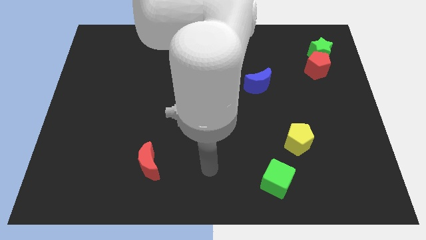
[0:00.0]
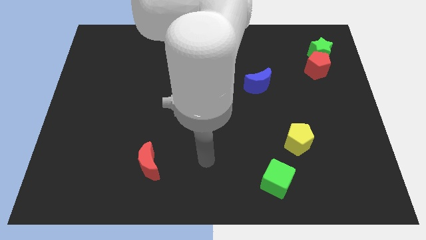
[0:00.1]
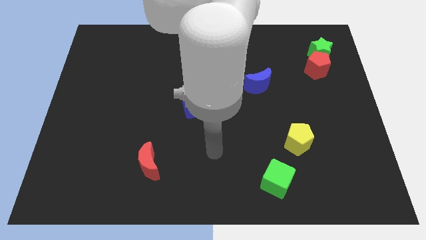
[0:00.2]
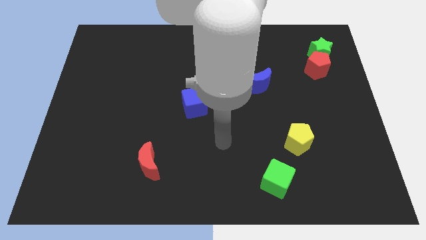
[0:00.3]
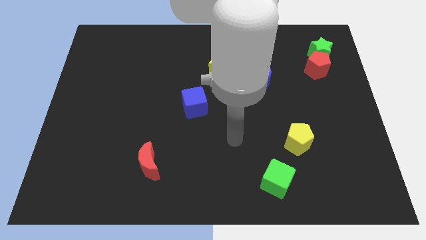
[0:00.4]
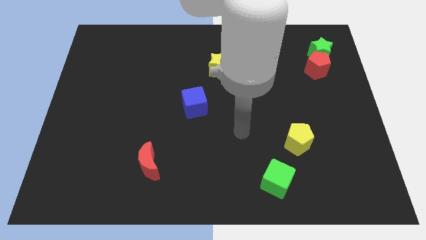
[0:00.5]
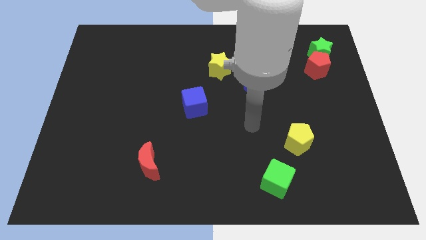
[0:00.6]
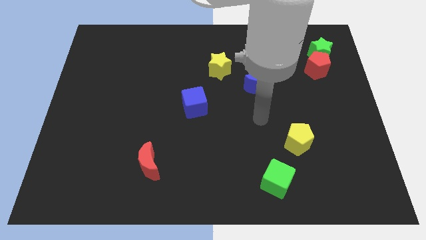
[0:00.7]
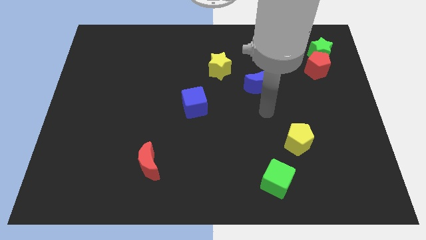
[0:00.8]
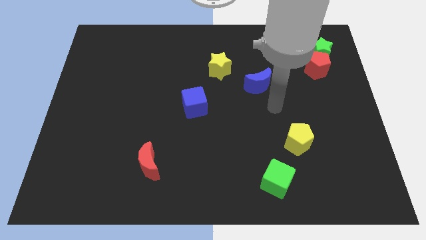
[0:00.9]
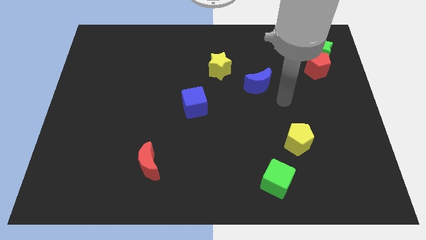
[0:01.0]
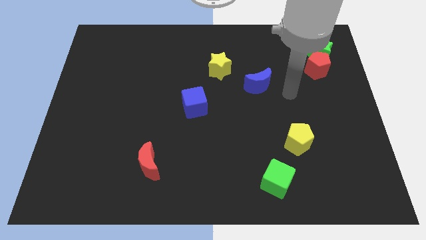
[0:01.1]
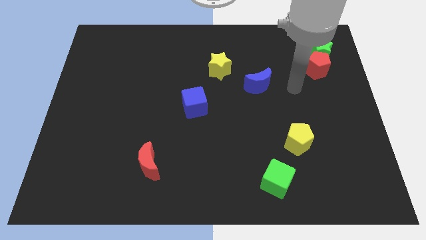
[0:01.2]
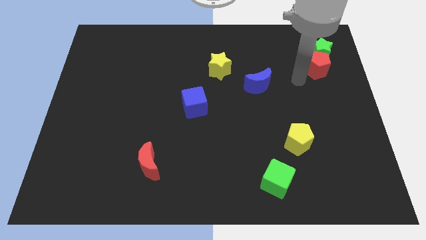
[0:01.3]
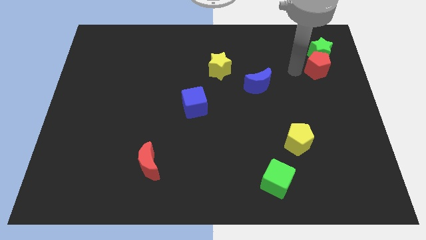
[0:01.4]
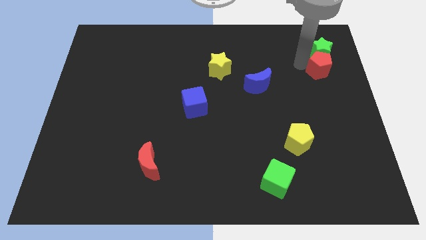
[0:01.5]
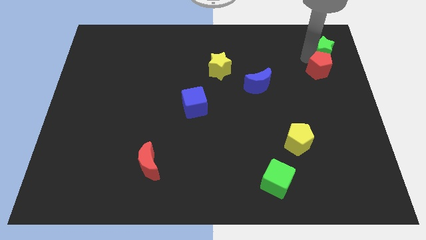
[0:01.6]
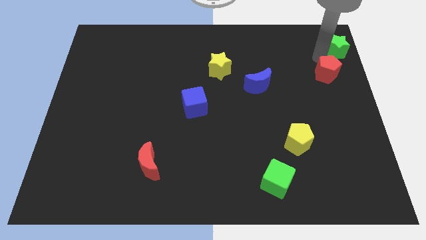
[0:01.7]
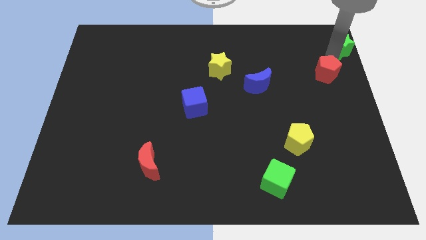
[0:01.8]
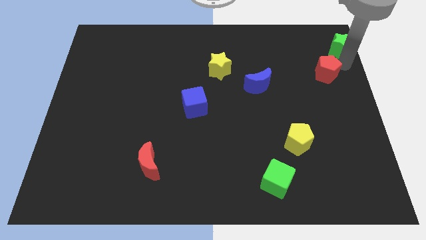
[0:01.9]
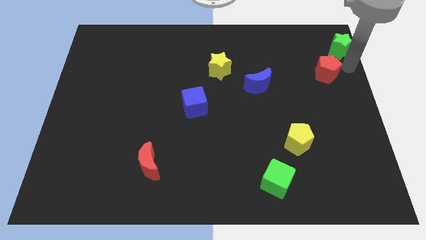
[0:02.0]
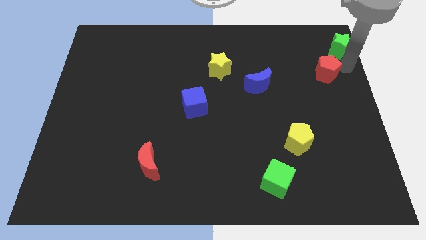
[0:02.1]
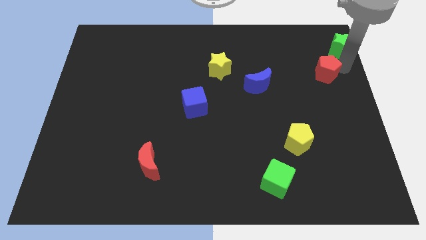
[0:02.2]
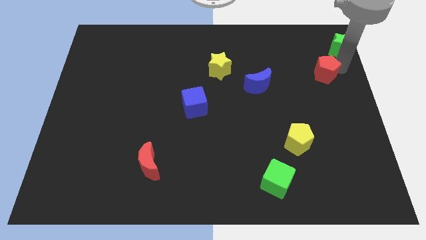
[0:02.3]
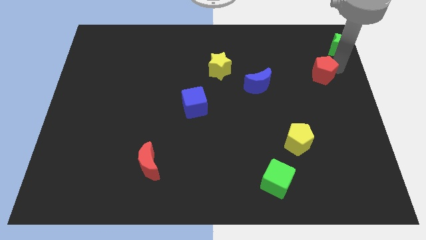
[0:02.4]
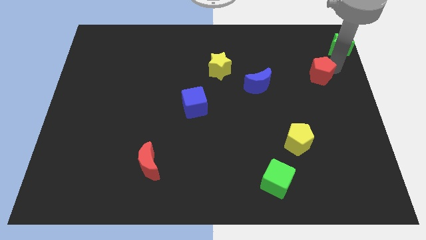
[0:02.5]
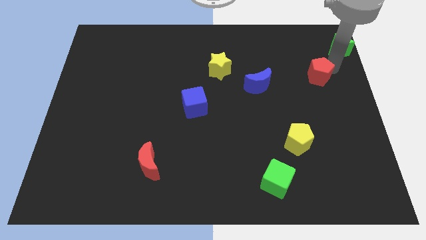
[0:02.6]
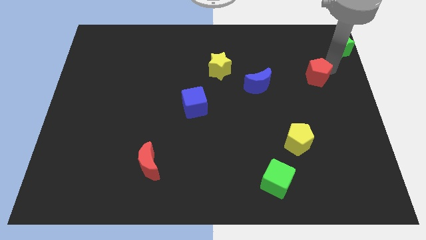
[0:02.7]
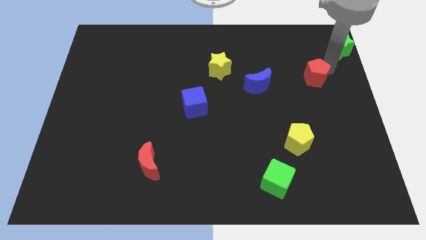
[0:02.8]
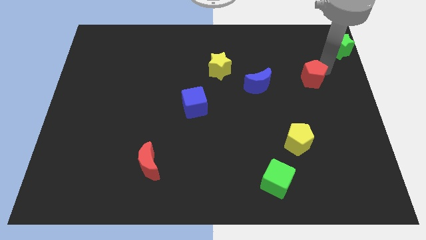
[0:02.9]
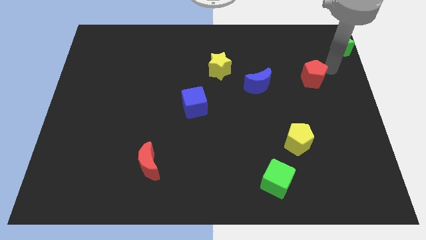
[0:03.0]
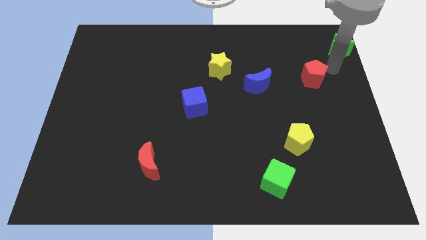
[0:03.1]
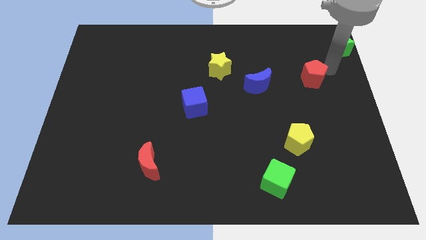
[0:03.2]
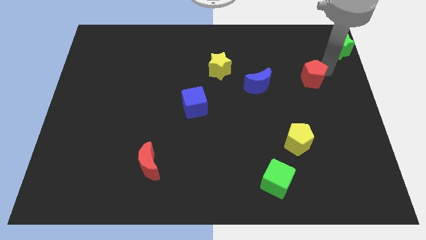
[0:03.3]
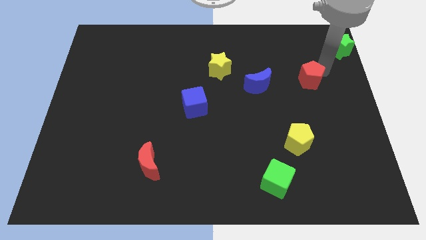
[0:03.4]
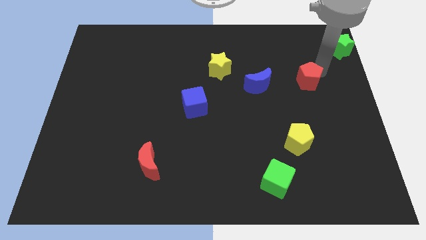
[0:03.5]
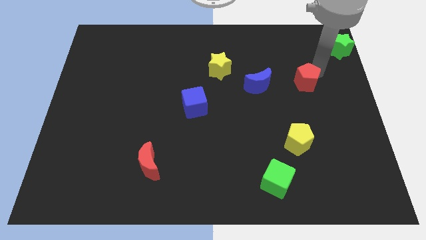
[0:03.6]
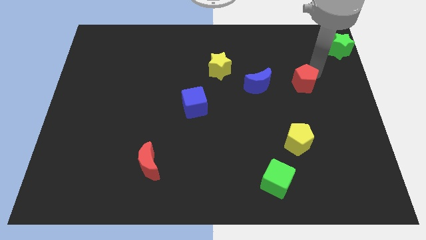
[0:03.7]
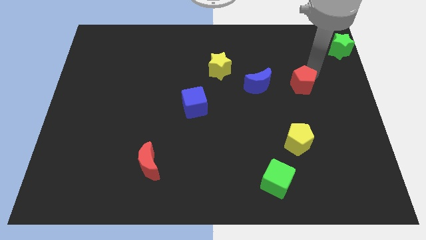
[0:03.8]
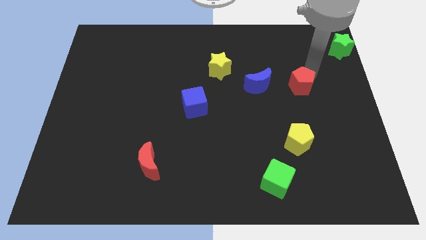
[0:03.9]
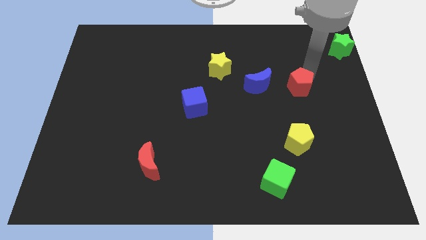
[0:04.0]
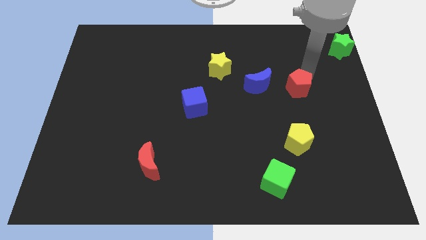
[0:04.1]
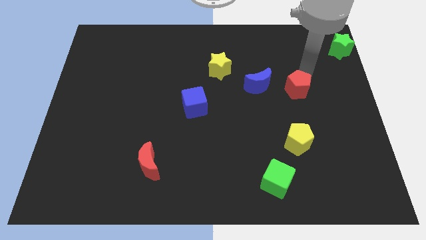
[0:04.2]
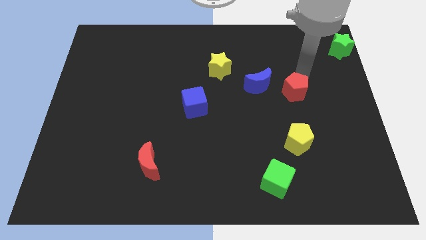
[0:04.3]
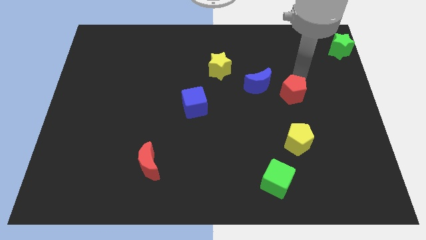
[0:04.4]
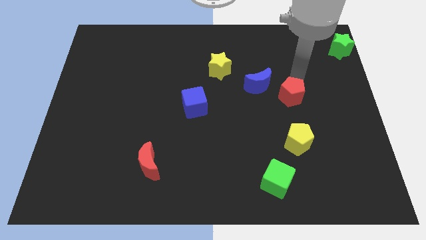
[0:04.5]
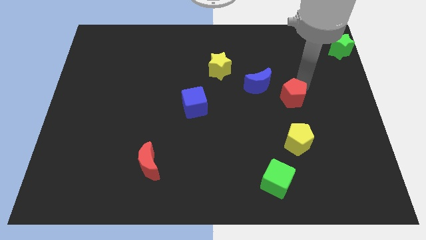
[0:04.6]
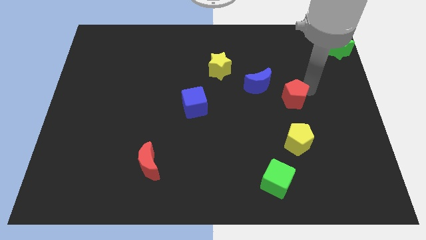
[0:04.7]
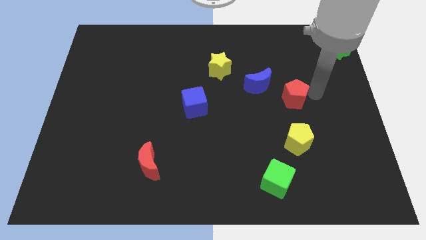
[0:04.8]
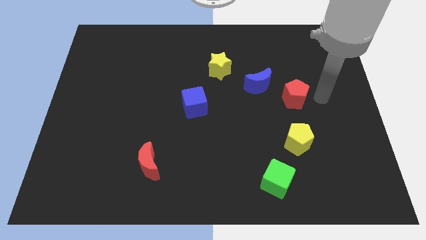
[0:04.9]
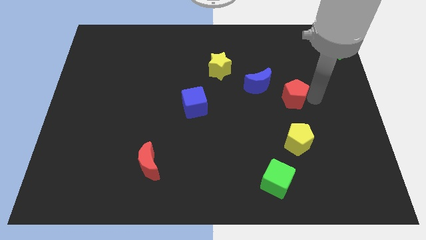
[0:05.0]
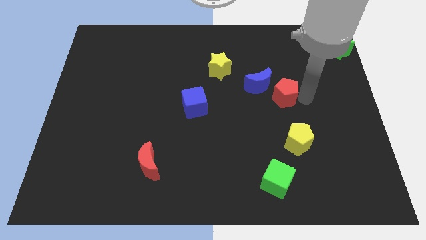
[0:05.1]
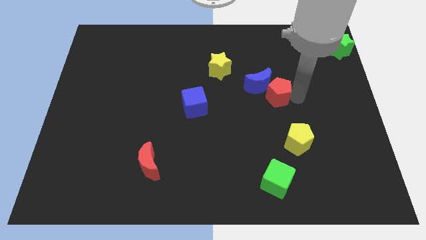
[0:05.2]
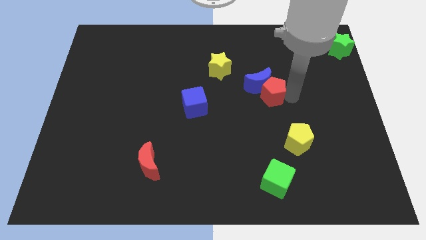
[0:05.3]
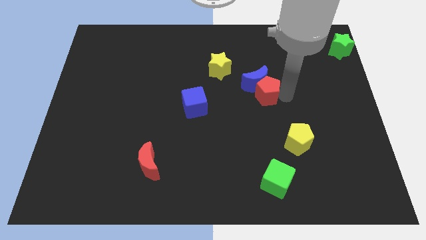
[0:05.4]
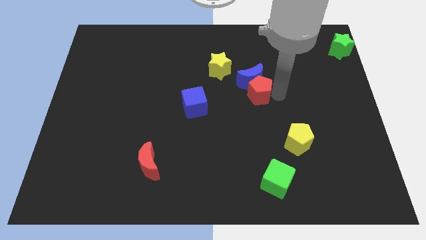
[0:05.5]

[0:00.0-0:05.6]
move the red pentagon to the middle

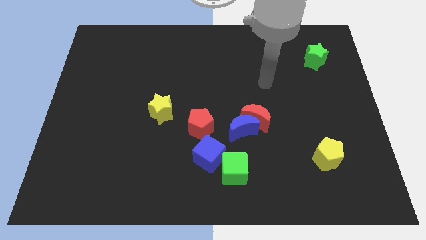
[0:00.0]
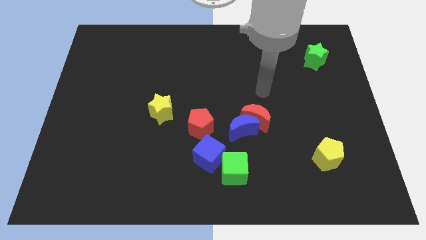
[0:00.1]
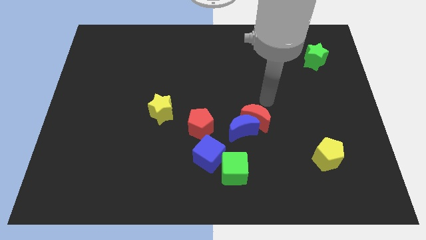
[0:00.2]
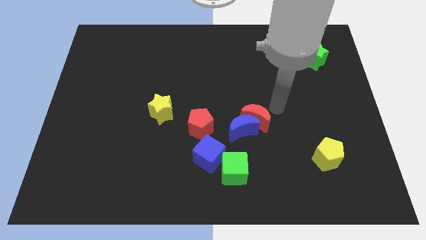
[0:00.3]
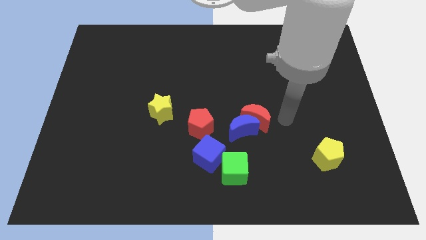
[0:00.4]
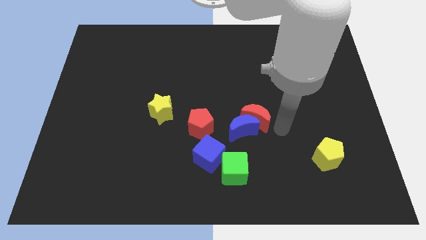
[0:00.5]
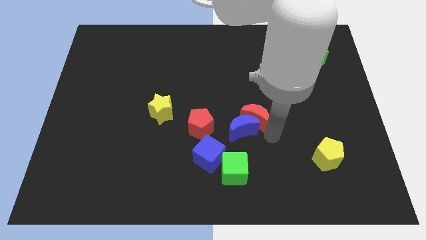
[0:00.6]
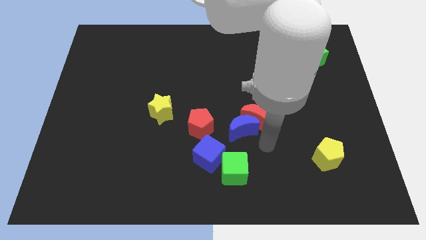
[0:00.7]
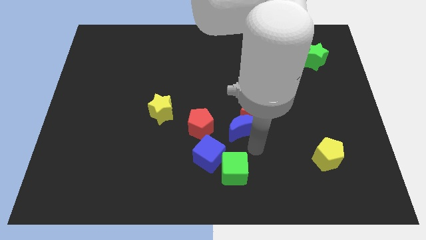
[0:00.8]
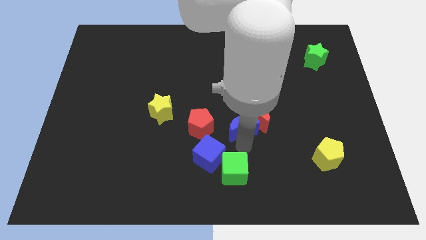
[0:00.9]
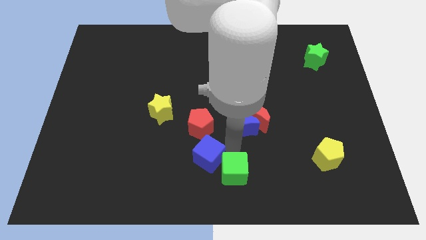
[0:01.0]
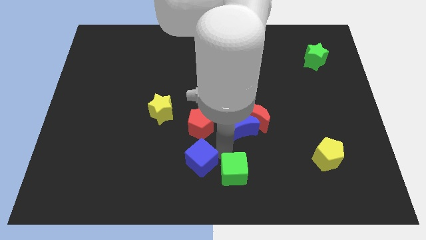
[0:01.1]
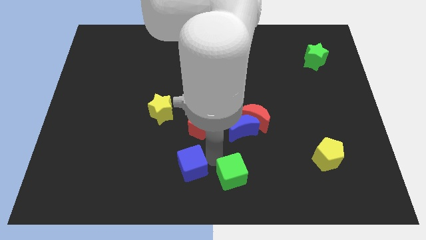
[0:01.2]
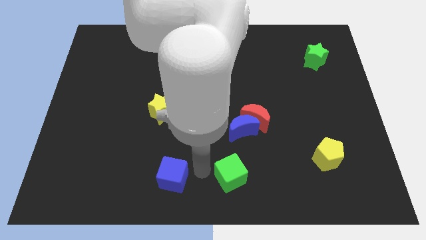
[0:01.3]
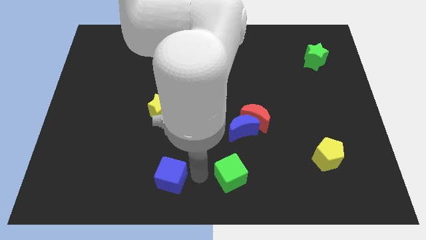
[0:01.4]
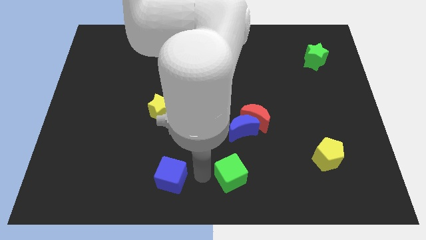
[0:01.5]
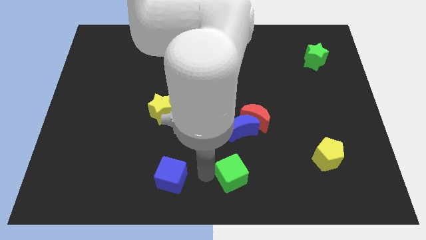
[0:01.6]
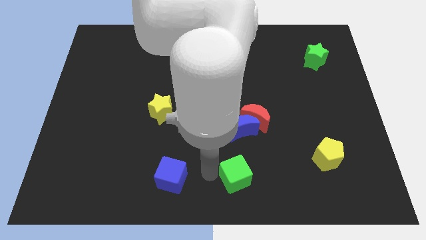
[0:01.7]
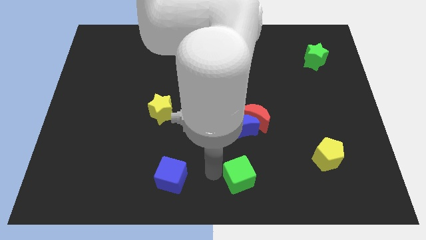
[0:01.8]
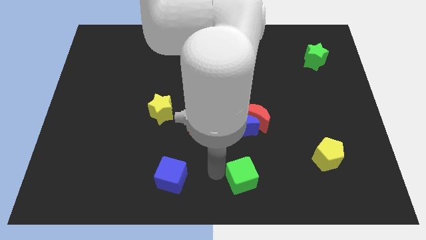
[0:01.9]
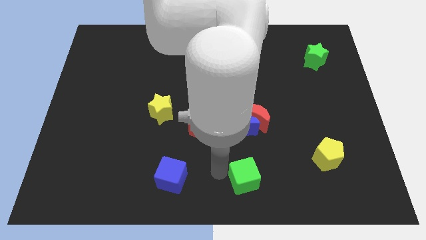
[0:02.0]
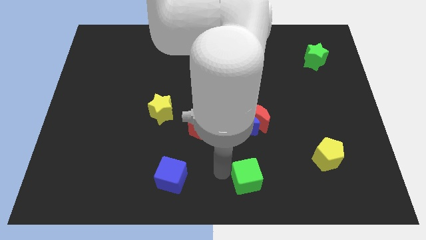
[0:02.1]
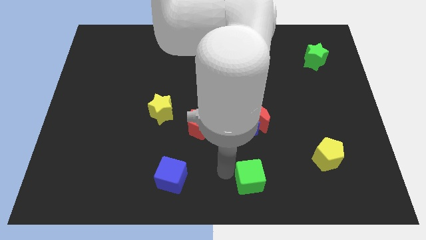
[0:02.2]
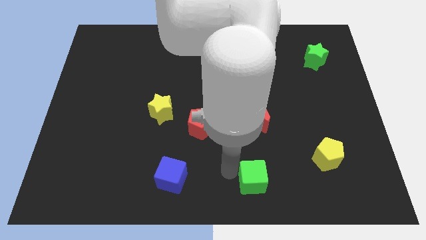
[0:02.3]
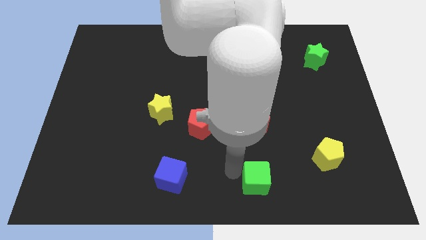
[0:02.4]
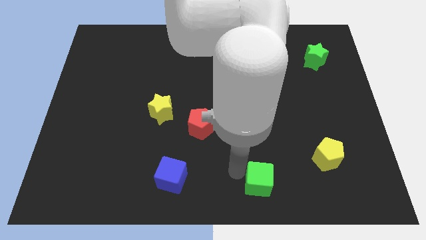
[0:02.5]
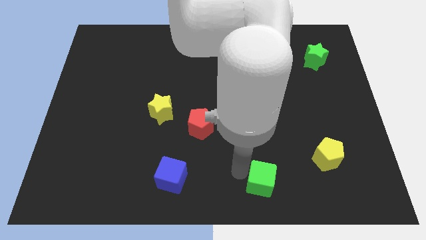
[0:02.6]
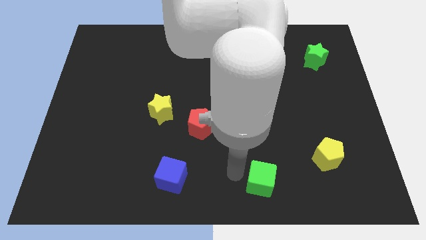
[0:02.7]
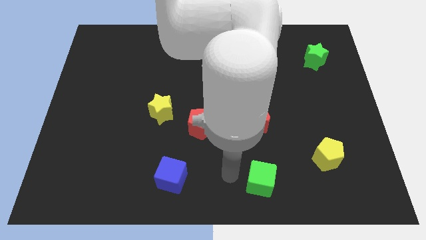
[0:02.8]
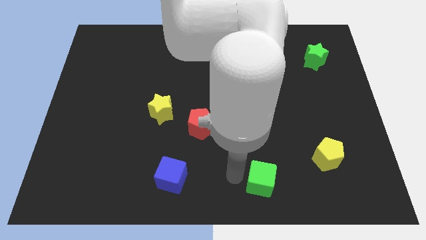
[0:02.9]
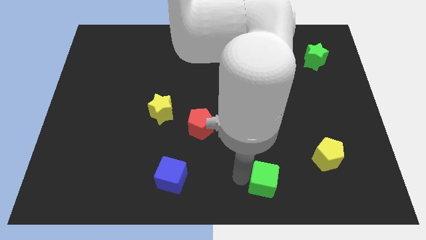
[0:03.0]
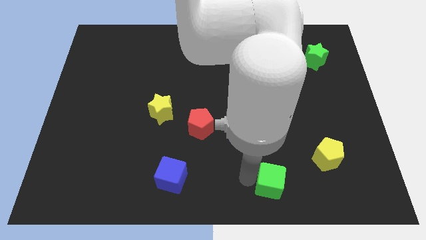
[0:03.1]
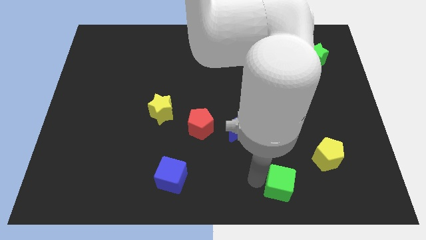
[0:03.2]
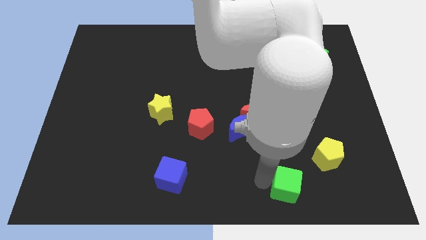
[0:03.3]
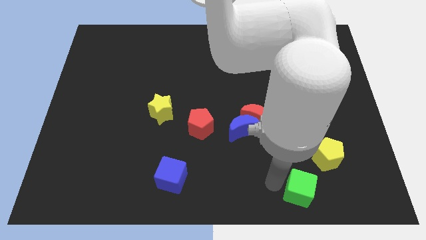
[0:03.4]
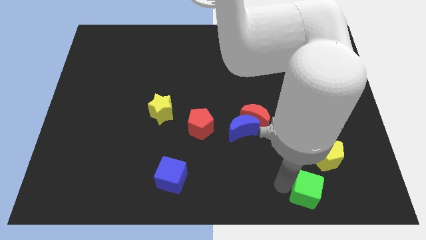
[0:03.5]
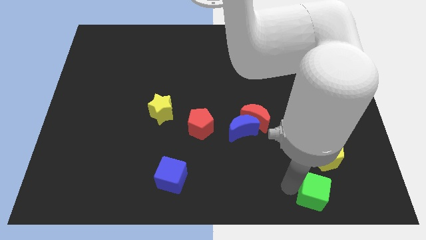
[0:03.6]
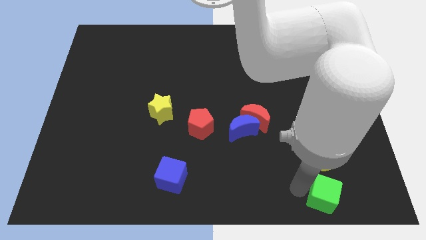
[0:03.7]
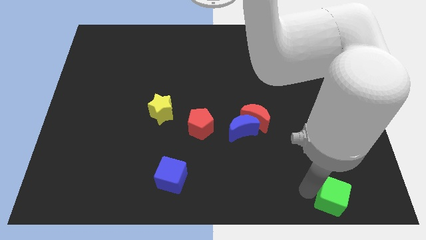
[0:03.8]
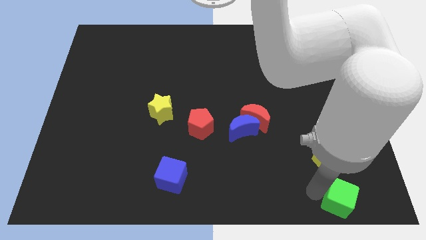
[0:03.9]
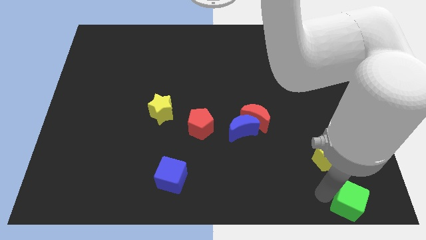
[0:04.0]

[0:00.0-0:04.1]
push the green cube to the lower right corner
